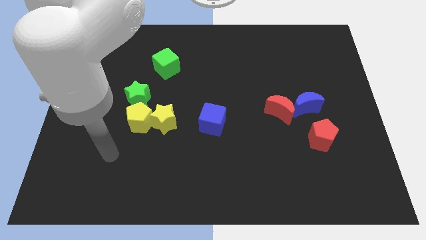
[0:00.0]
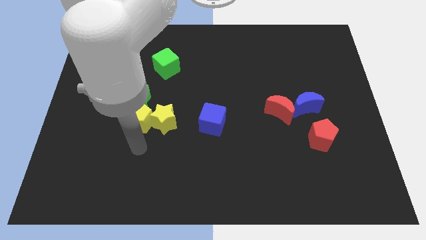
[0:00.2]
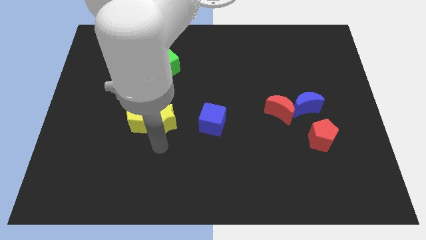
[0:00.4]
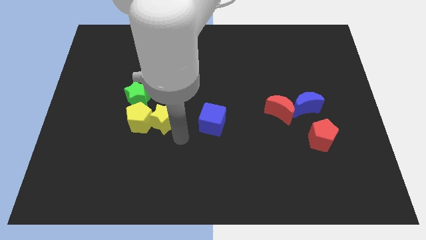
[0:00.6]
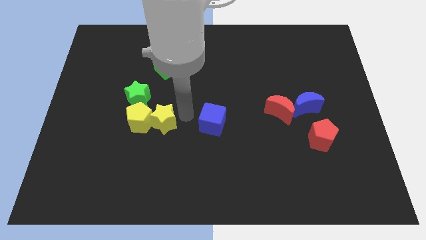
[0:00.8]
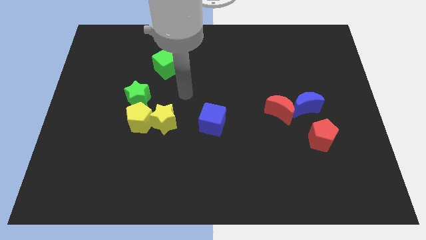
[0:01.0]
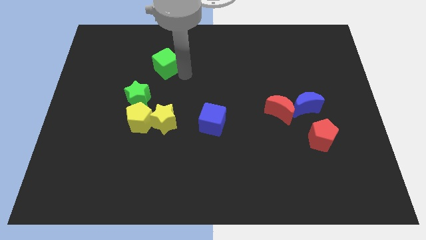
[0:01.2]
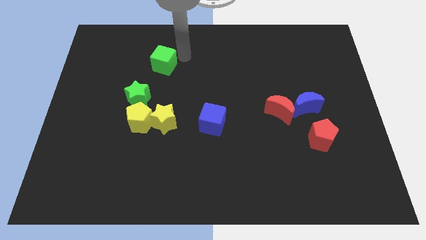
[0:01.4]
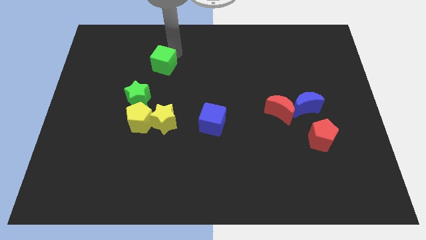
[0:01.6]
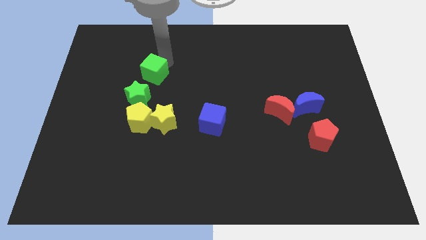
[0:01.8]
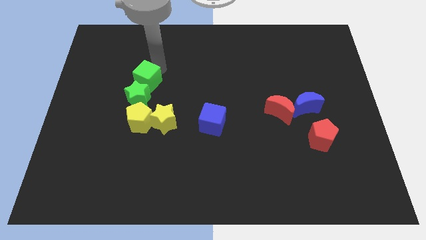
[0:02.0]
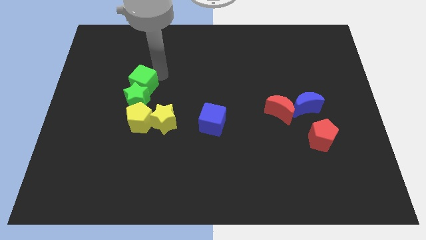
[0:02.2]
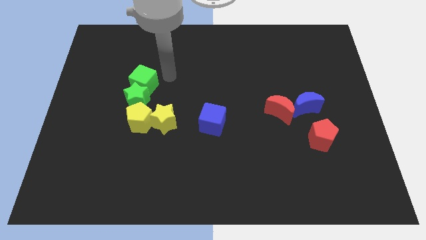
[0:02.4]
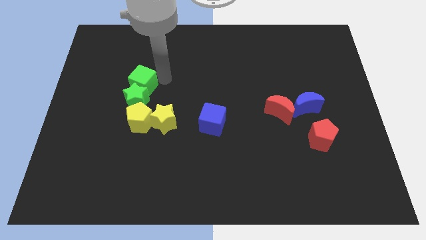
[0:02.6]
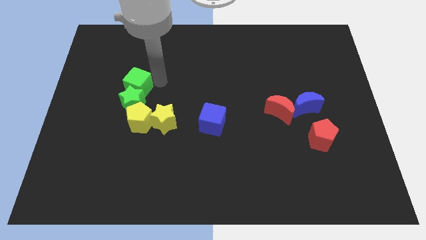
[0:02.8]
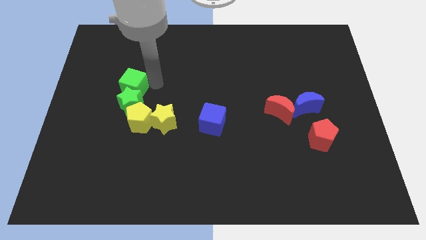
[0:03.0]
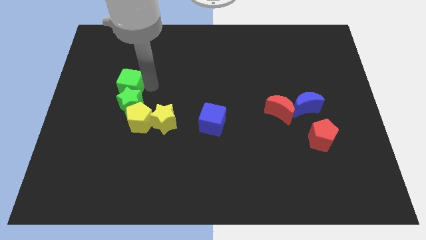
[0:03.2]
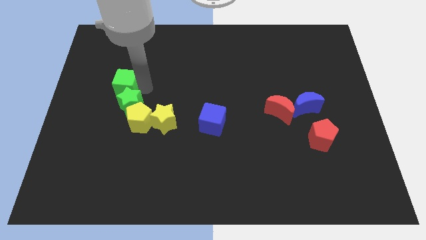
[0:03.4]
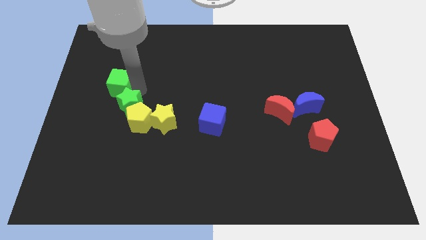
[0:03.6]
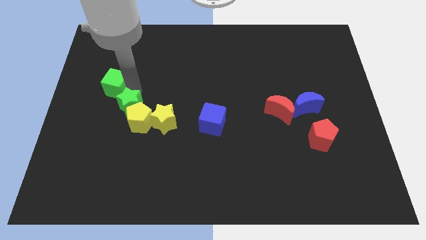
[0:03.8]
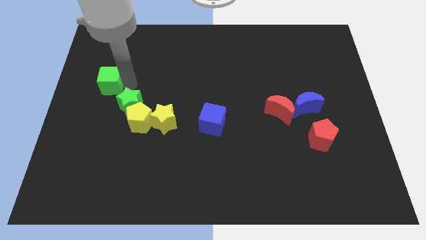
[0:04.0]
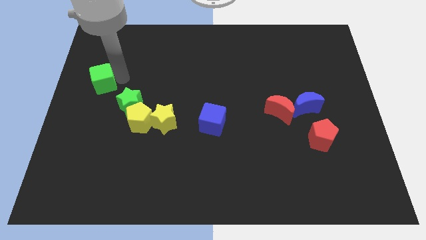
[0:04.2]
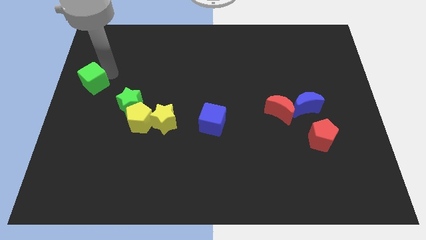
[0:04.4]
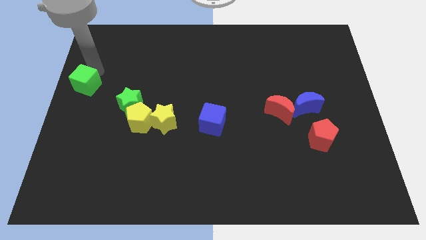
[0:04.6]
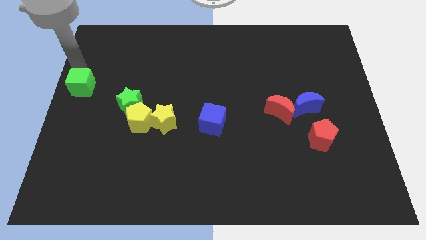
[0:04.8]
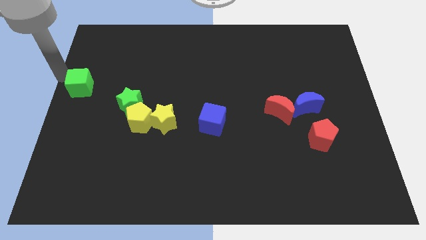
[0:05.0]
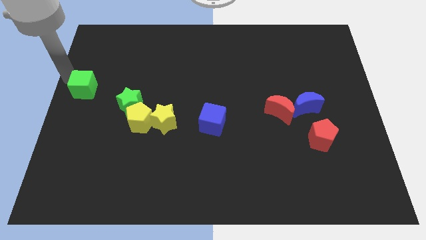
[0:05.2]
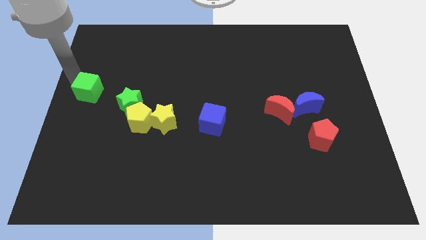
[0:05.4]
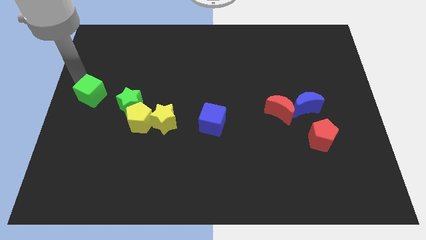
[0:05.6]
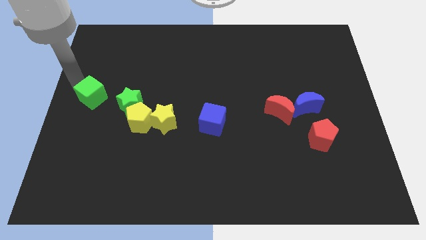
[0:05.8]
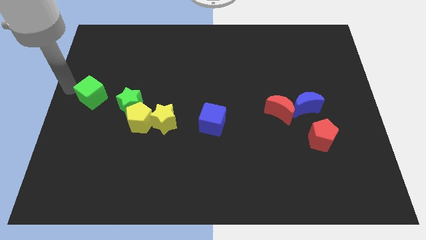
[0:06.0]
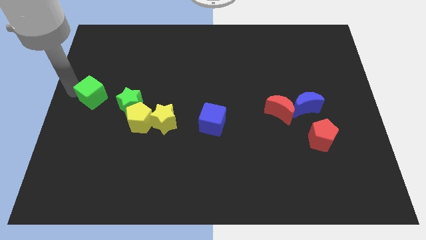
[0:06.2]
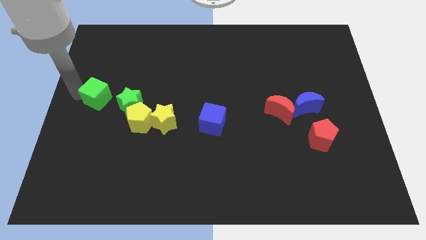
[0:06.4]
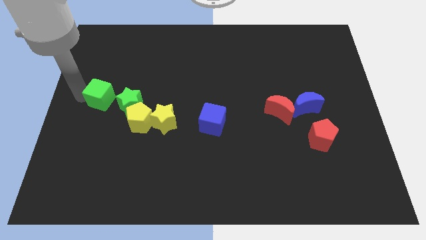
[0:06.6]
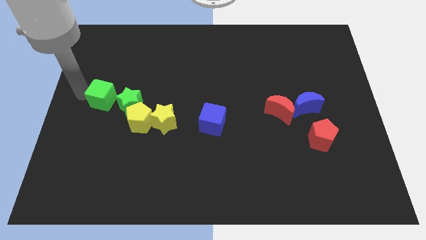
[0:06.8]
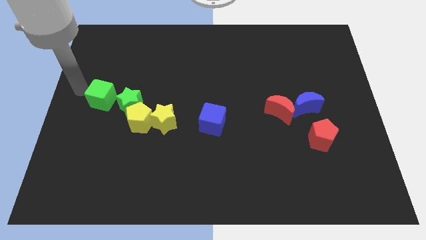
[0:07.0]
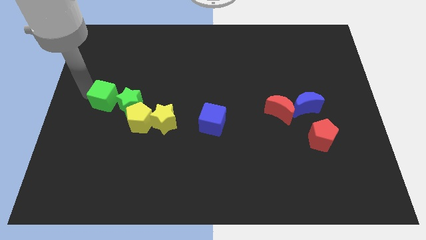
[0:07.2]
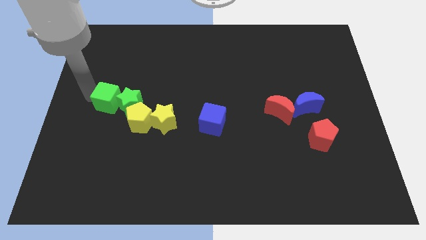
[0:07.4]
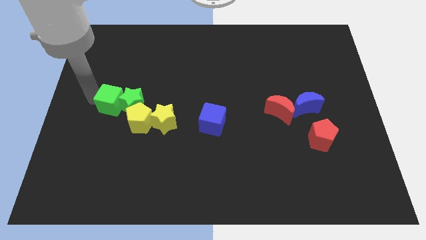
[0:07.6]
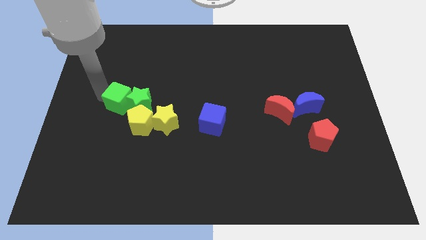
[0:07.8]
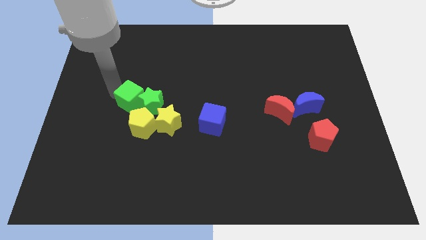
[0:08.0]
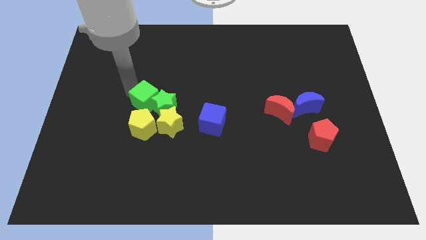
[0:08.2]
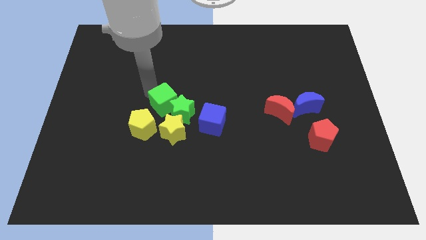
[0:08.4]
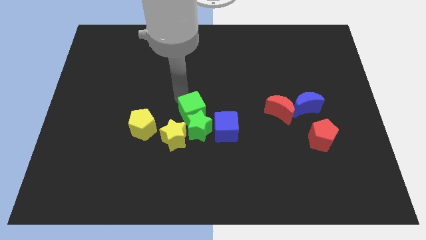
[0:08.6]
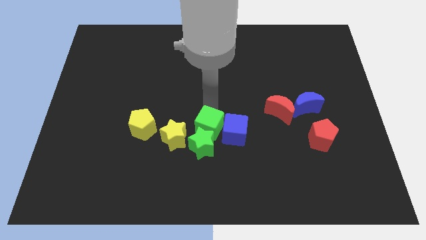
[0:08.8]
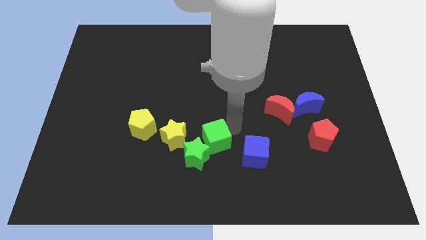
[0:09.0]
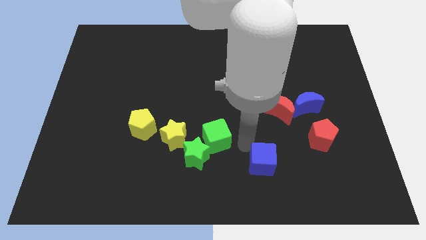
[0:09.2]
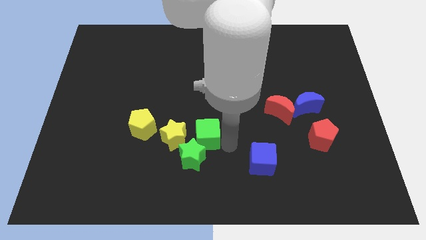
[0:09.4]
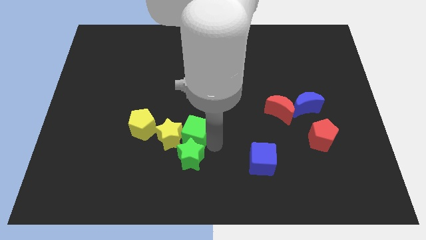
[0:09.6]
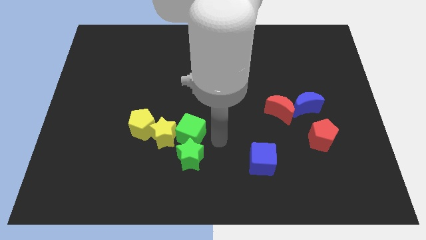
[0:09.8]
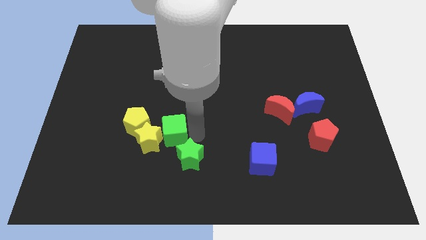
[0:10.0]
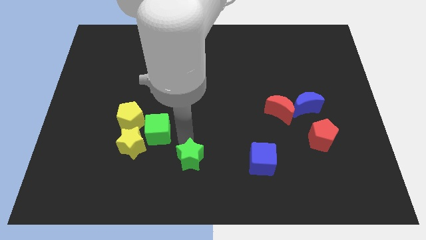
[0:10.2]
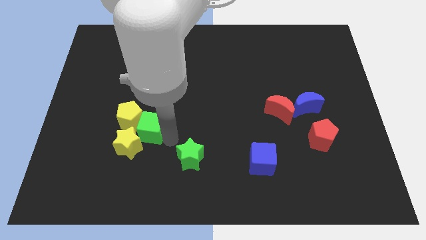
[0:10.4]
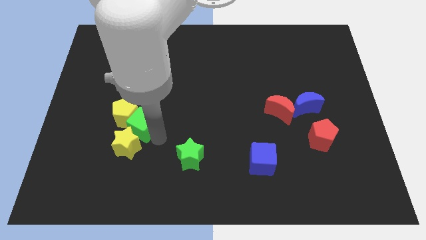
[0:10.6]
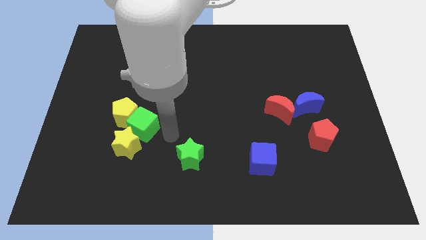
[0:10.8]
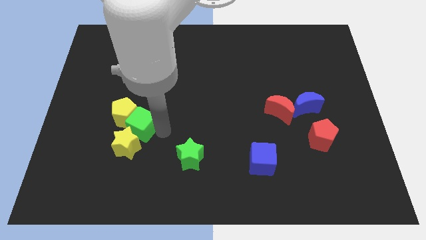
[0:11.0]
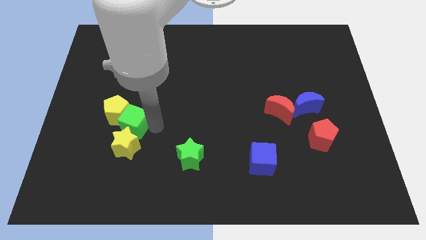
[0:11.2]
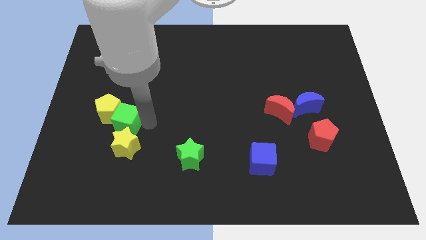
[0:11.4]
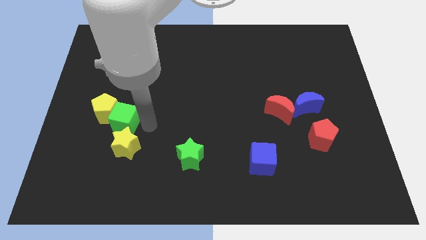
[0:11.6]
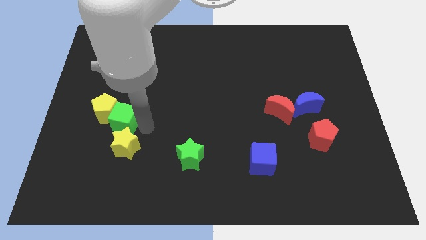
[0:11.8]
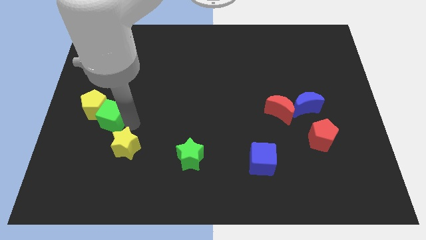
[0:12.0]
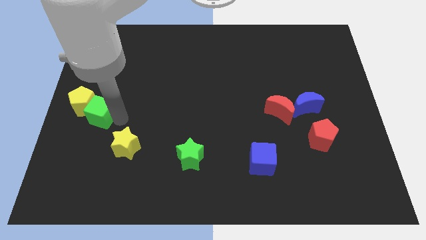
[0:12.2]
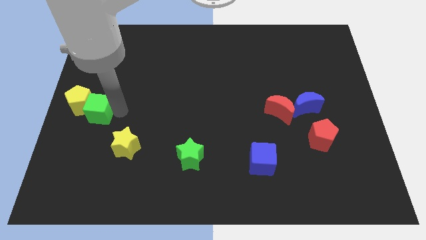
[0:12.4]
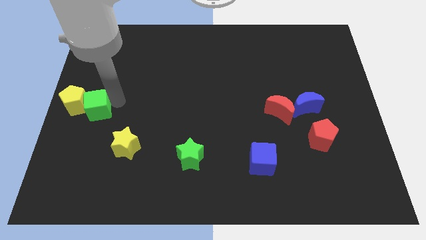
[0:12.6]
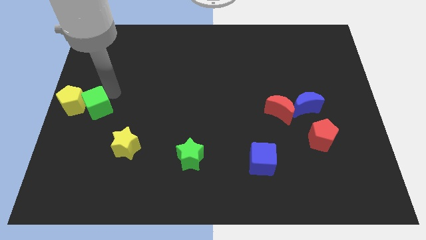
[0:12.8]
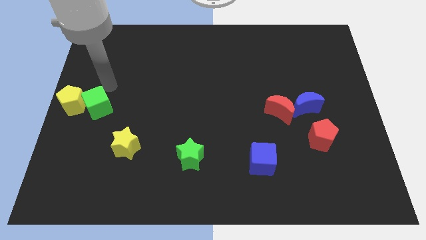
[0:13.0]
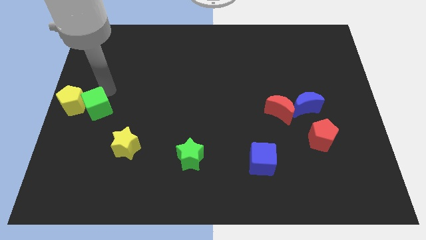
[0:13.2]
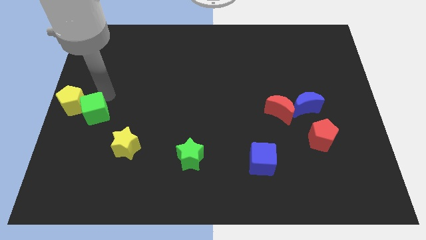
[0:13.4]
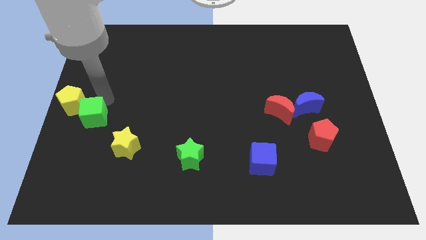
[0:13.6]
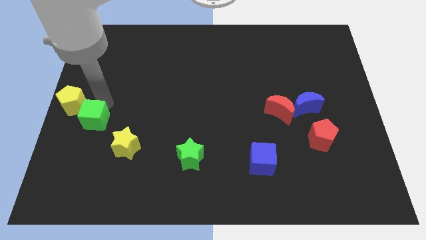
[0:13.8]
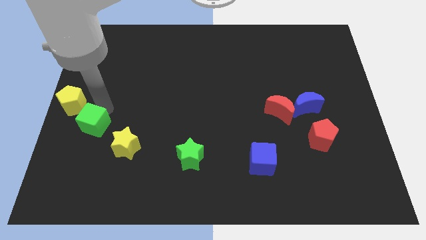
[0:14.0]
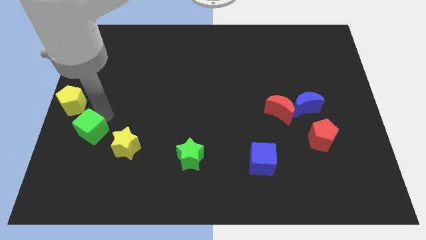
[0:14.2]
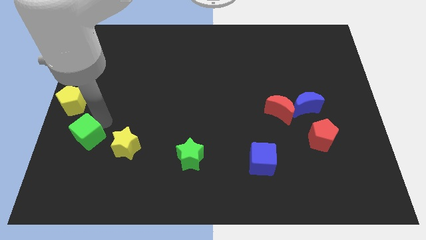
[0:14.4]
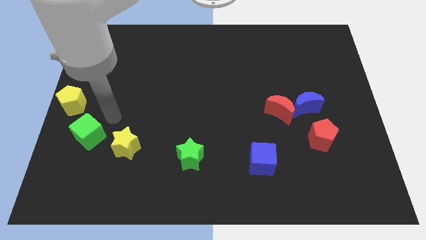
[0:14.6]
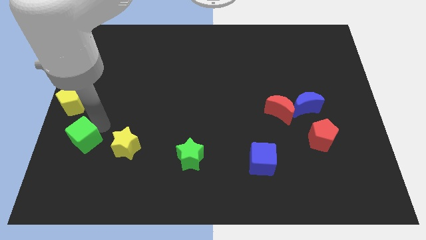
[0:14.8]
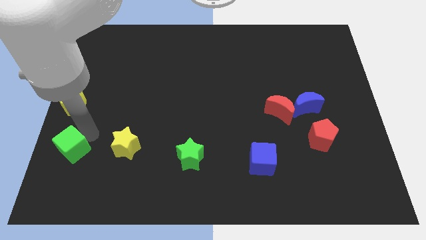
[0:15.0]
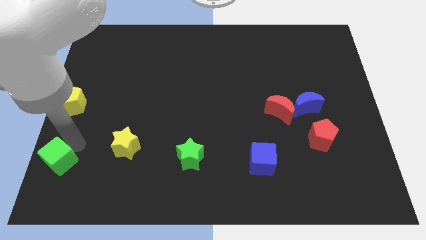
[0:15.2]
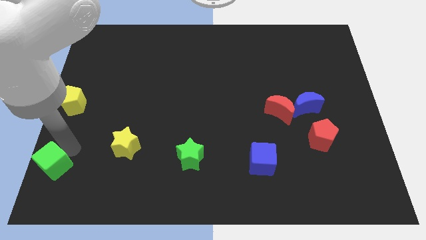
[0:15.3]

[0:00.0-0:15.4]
move the green cube to the bottom left corner
